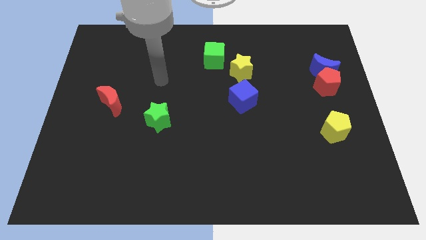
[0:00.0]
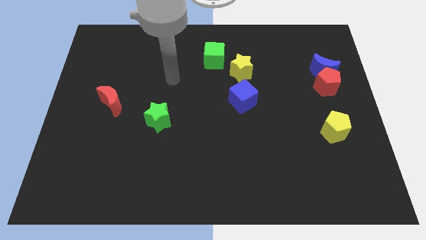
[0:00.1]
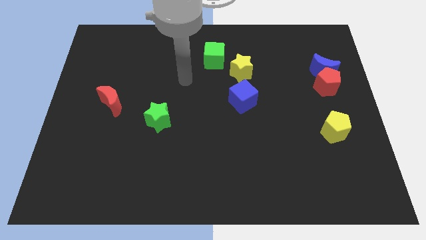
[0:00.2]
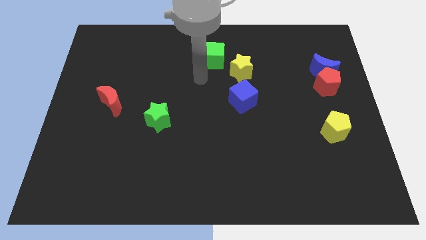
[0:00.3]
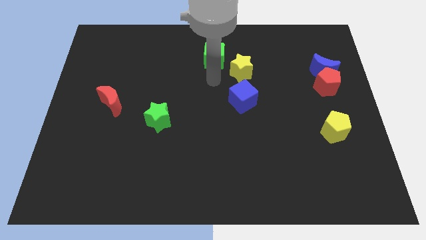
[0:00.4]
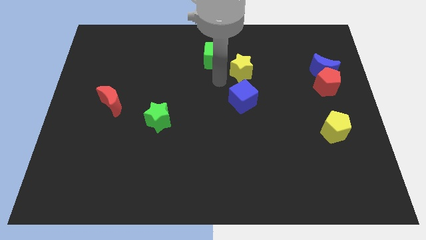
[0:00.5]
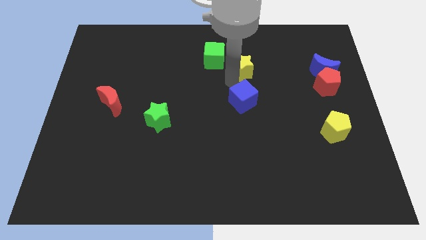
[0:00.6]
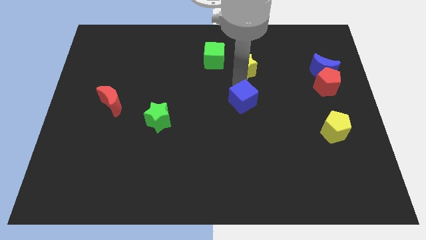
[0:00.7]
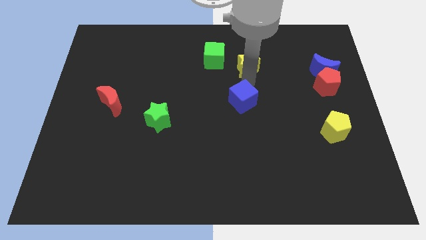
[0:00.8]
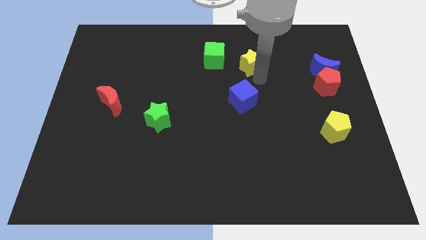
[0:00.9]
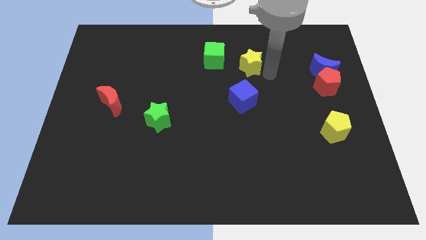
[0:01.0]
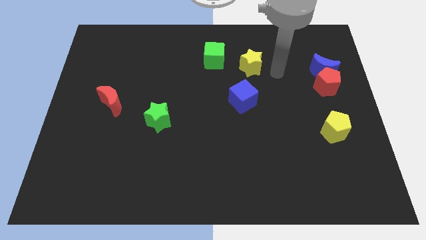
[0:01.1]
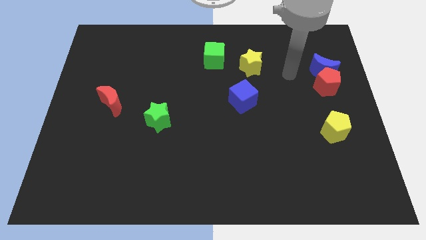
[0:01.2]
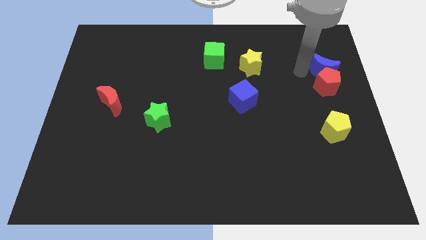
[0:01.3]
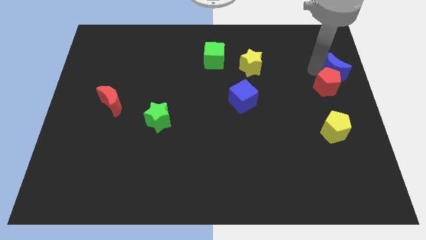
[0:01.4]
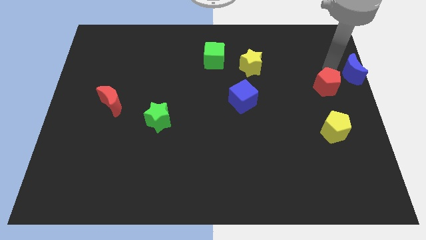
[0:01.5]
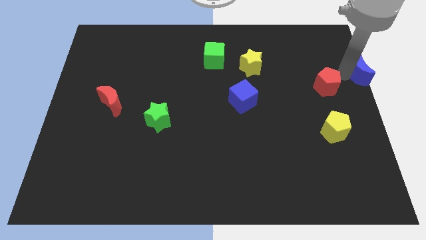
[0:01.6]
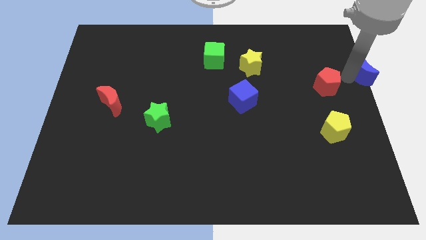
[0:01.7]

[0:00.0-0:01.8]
pull the red pentagon apart from the blue moon

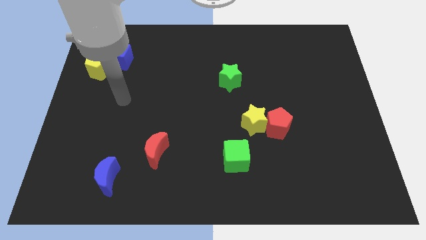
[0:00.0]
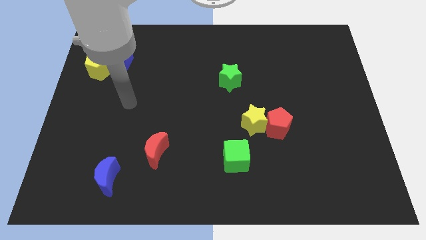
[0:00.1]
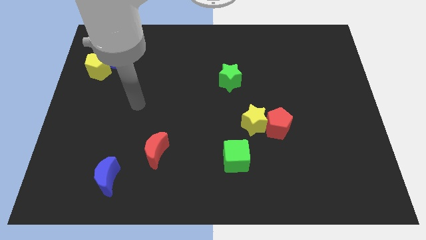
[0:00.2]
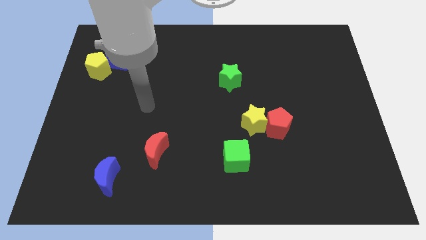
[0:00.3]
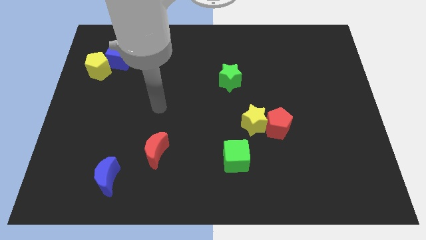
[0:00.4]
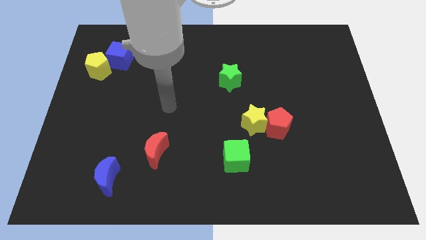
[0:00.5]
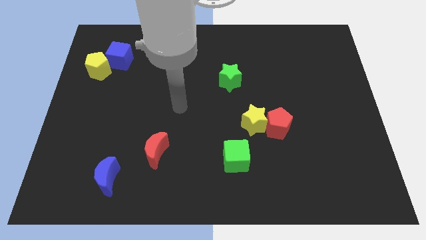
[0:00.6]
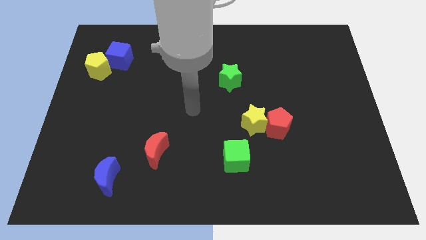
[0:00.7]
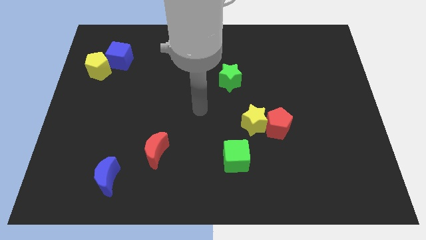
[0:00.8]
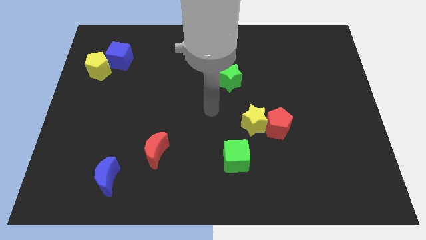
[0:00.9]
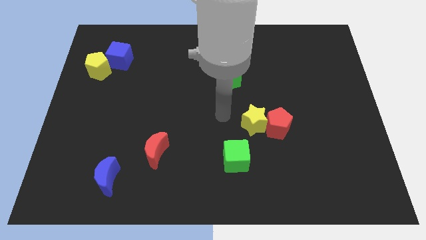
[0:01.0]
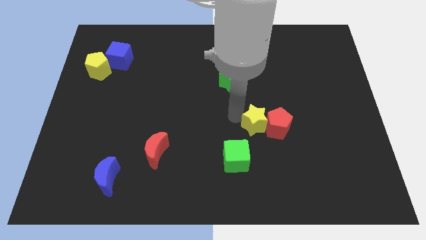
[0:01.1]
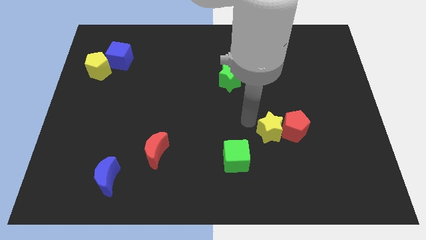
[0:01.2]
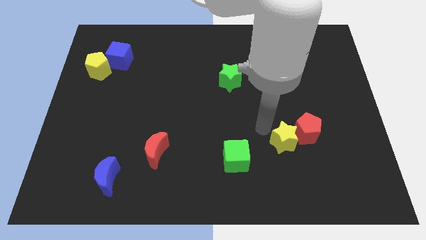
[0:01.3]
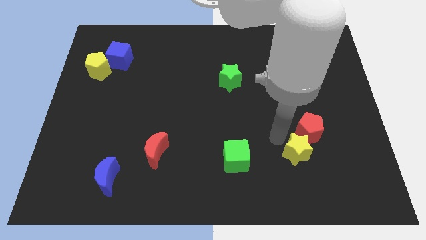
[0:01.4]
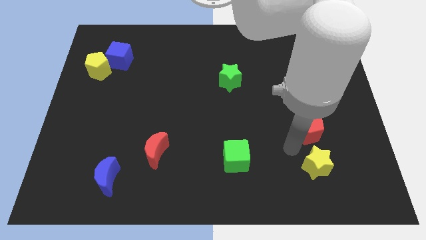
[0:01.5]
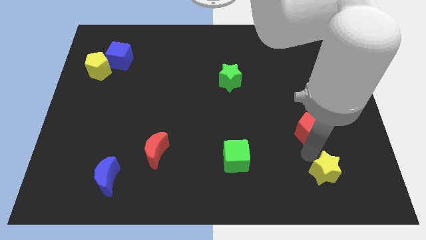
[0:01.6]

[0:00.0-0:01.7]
separate the red pentagon from the yellow star

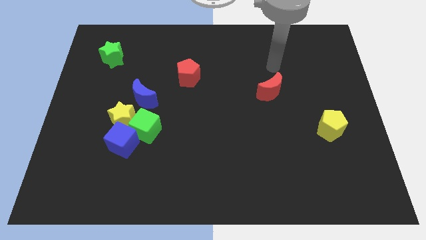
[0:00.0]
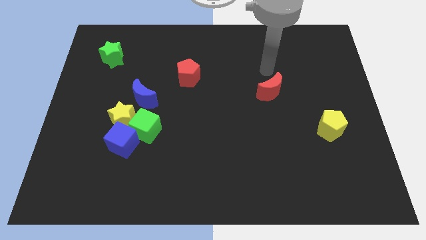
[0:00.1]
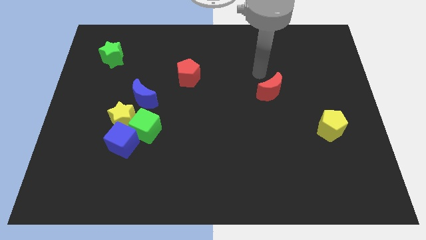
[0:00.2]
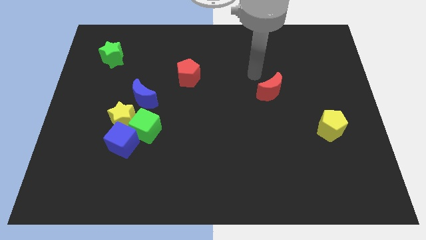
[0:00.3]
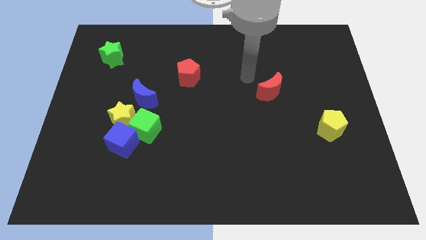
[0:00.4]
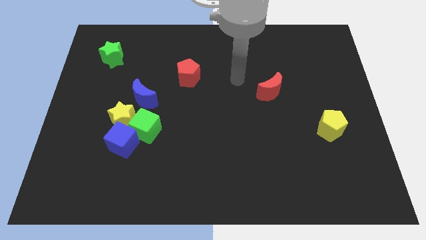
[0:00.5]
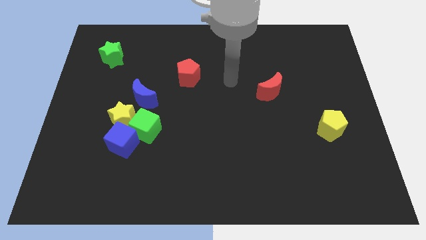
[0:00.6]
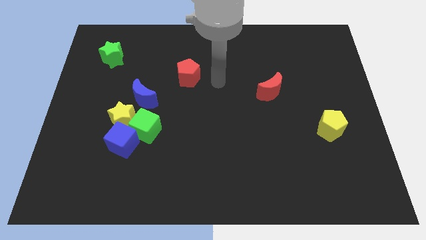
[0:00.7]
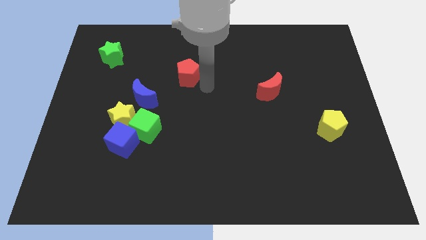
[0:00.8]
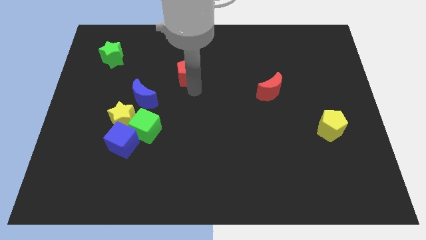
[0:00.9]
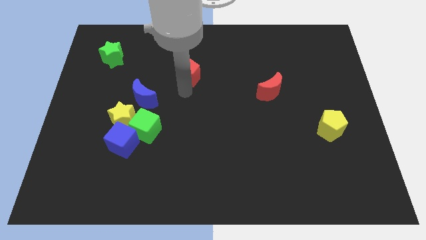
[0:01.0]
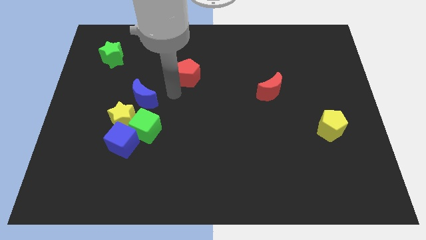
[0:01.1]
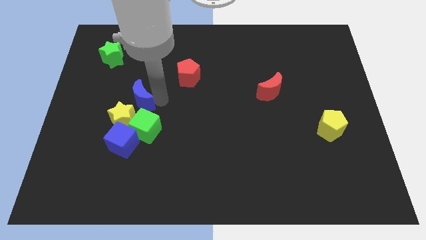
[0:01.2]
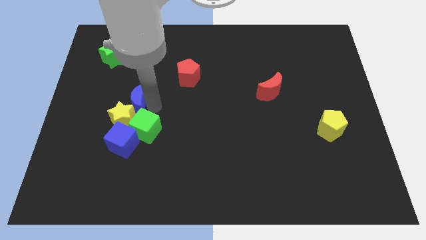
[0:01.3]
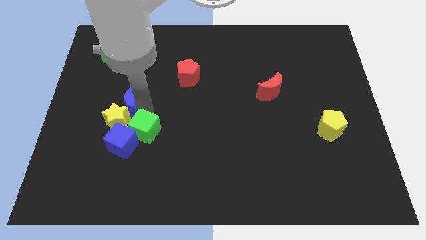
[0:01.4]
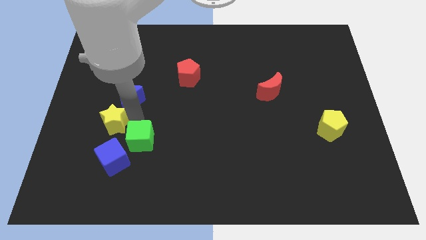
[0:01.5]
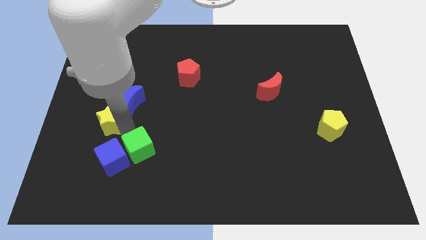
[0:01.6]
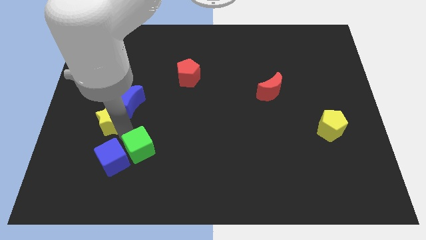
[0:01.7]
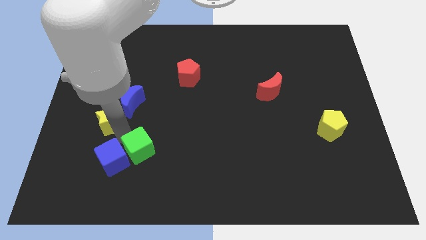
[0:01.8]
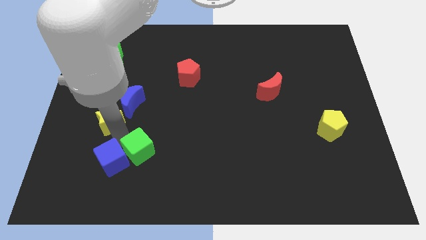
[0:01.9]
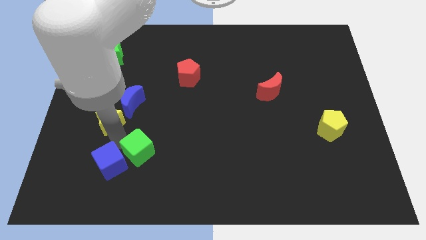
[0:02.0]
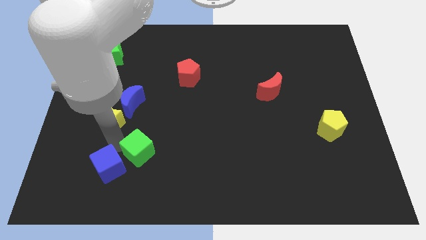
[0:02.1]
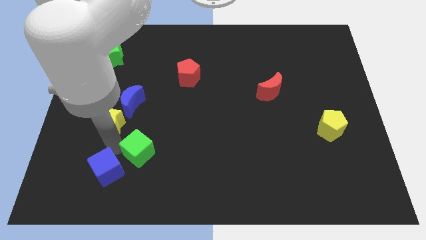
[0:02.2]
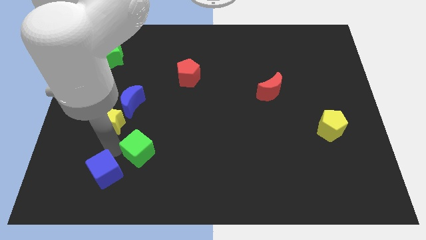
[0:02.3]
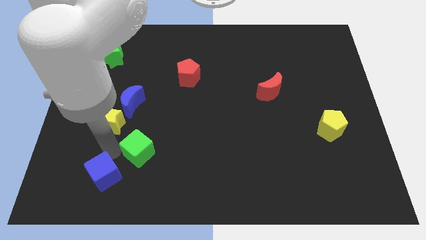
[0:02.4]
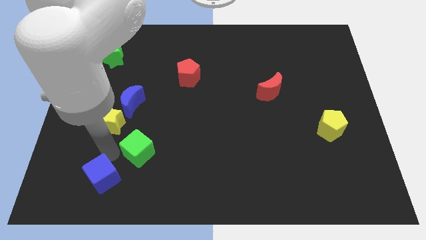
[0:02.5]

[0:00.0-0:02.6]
separate the blue cube from the green cube and yellow star

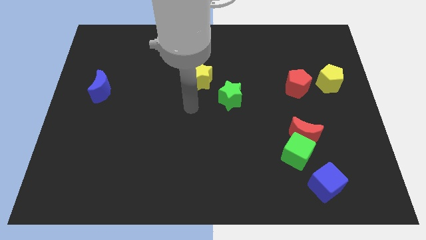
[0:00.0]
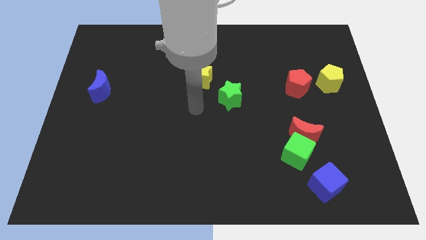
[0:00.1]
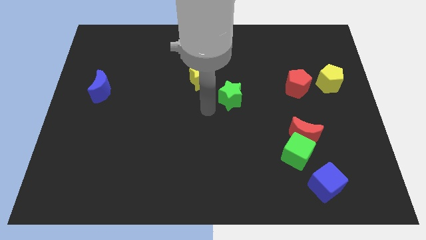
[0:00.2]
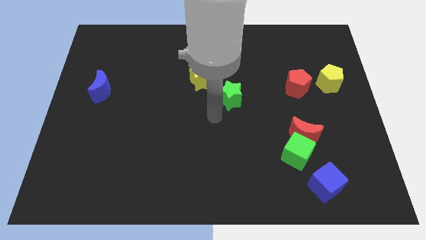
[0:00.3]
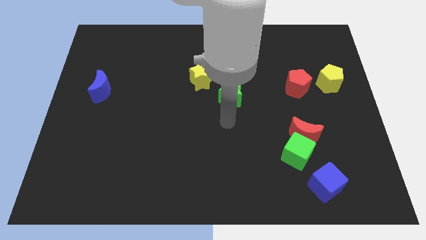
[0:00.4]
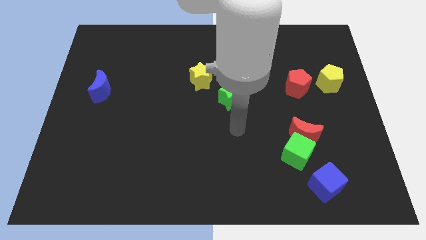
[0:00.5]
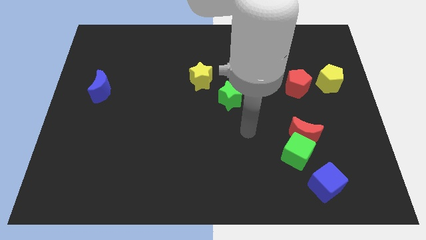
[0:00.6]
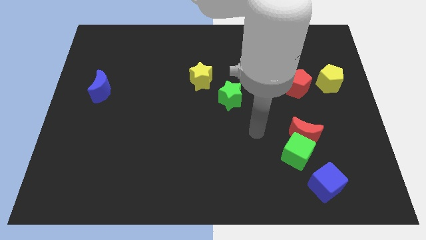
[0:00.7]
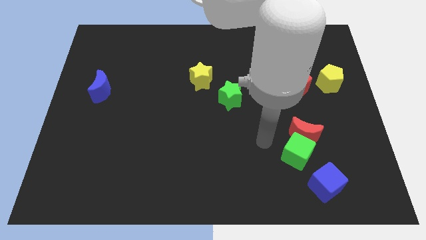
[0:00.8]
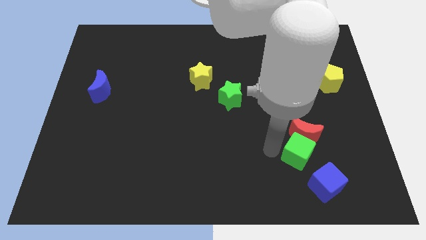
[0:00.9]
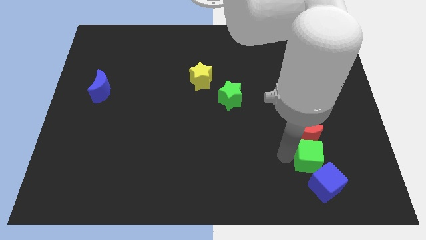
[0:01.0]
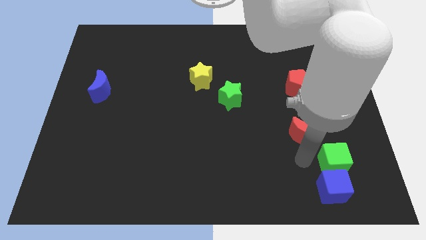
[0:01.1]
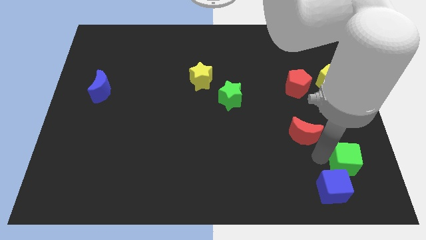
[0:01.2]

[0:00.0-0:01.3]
pull the red moon apart from the green cube

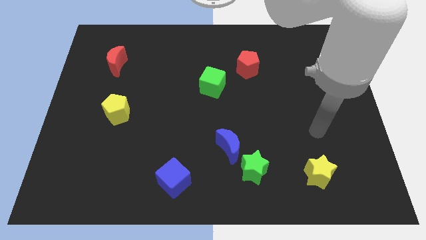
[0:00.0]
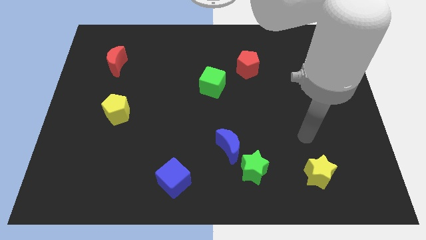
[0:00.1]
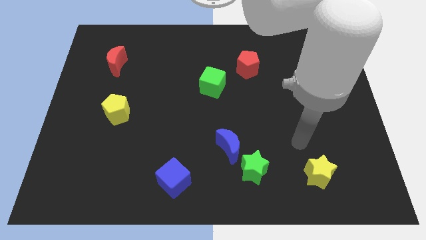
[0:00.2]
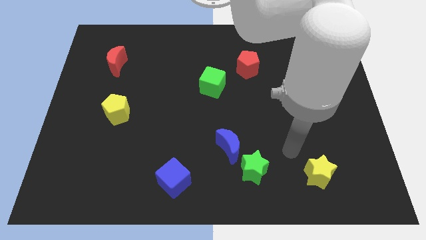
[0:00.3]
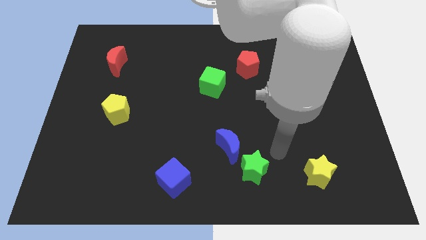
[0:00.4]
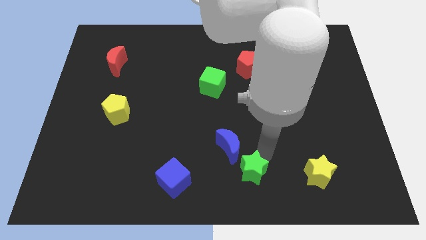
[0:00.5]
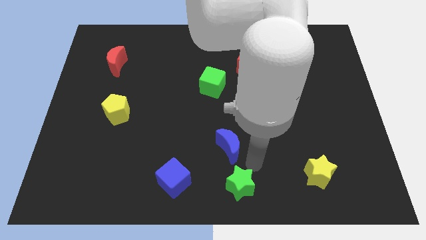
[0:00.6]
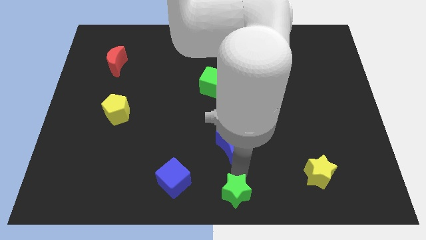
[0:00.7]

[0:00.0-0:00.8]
move the blue moon away from the green star

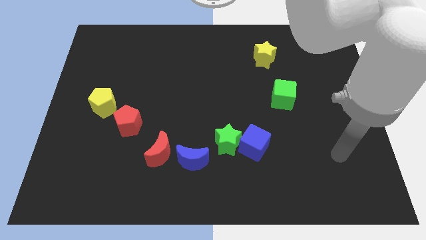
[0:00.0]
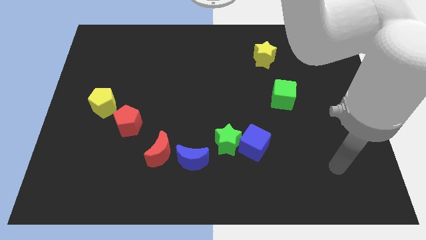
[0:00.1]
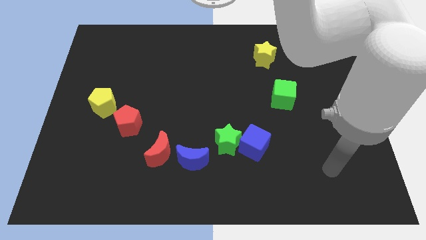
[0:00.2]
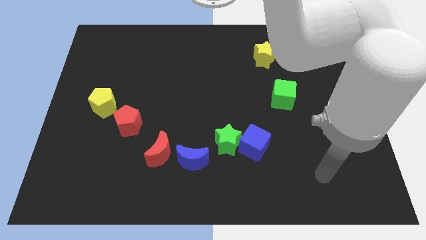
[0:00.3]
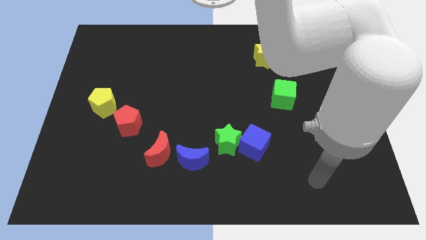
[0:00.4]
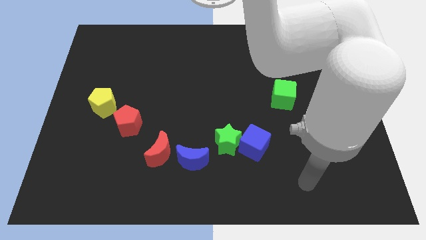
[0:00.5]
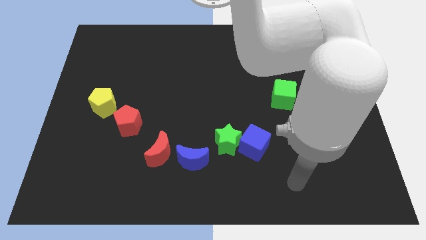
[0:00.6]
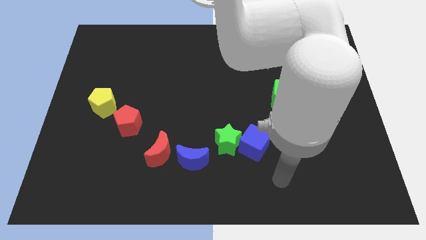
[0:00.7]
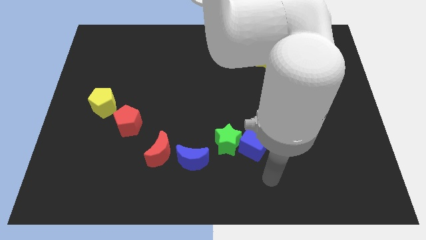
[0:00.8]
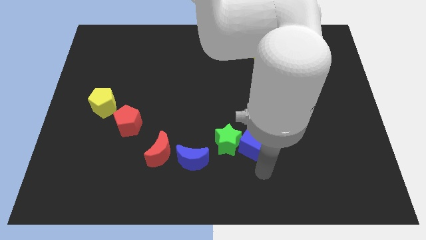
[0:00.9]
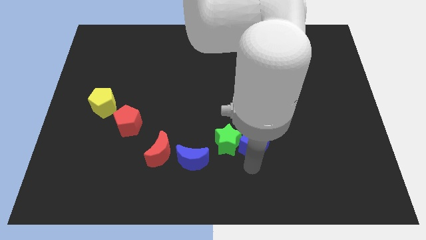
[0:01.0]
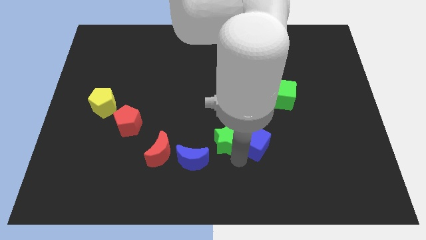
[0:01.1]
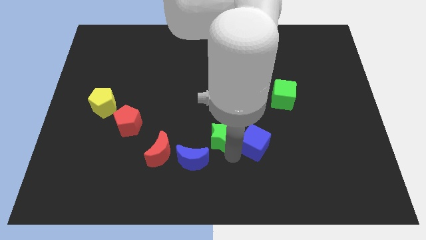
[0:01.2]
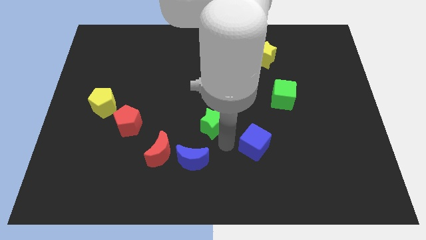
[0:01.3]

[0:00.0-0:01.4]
separate the blue cube from the green star
